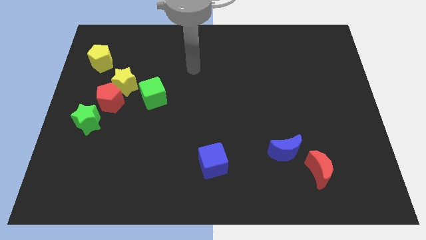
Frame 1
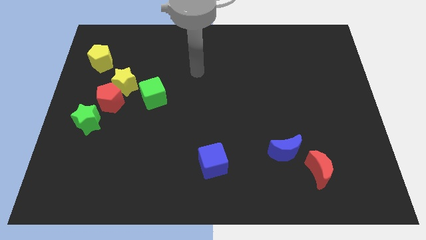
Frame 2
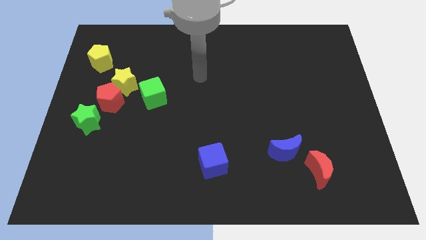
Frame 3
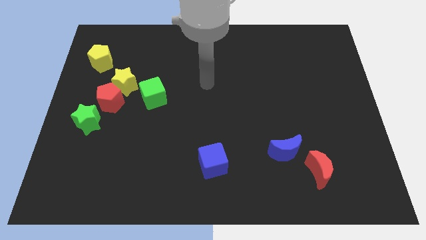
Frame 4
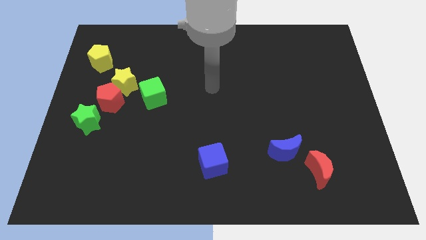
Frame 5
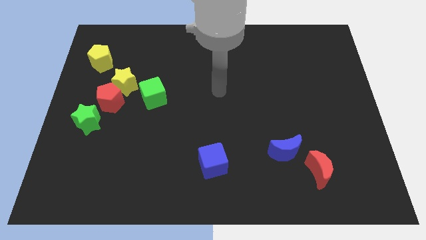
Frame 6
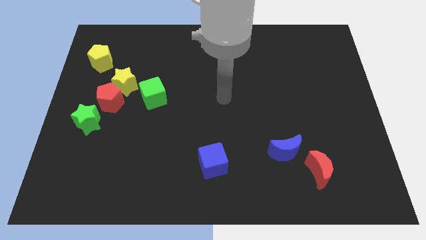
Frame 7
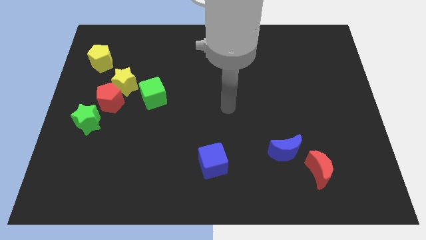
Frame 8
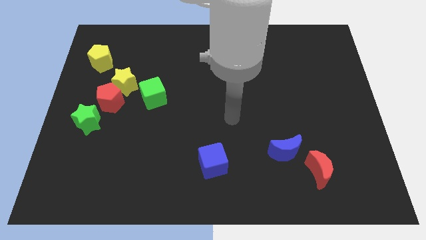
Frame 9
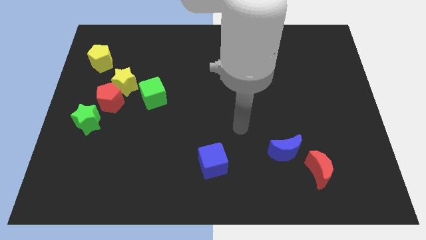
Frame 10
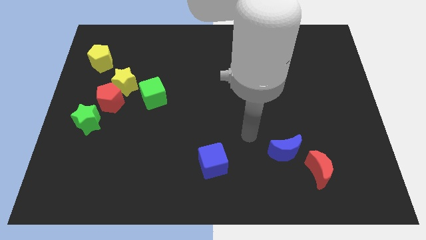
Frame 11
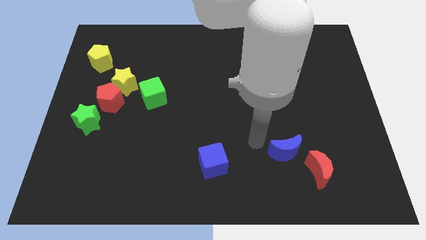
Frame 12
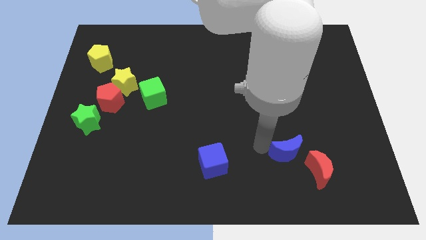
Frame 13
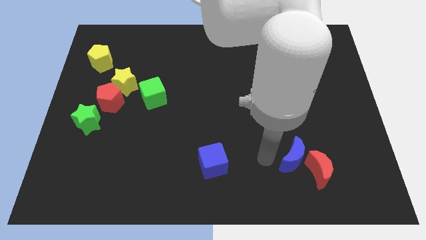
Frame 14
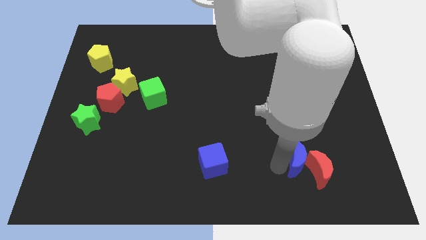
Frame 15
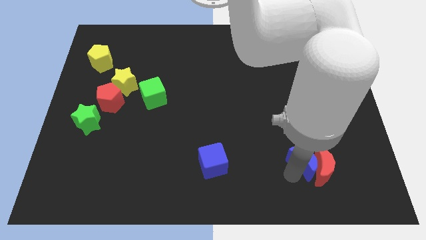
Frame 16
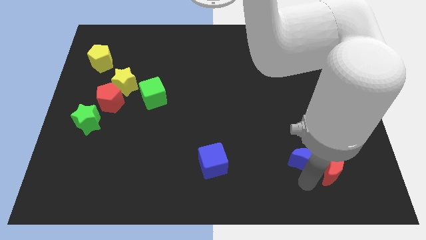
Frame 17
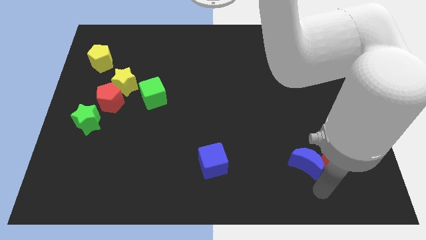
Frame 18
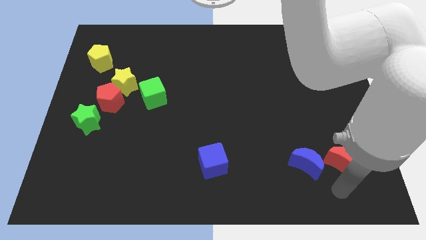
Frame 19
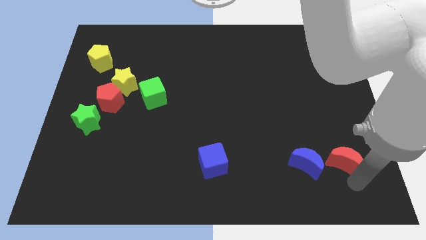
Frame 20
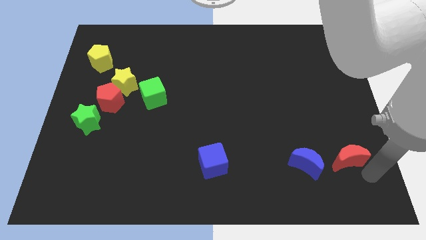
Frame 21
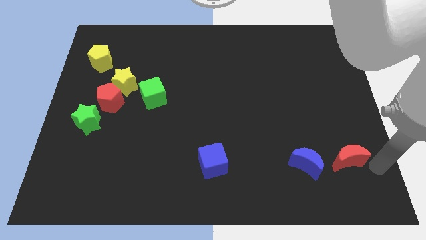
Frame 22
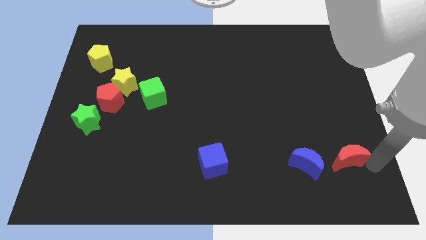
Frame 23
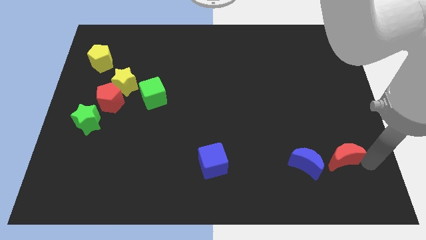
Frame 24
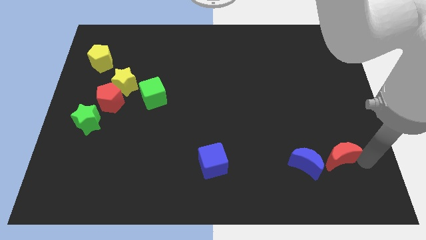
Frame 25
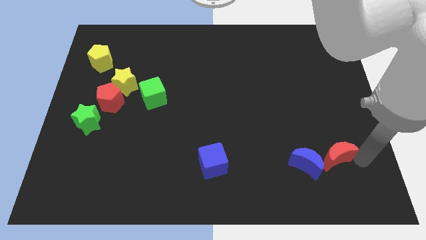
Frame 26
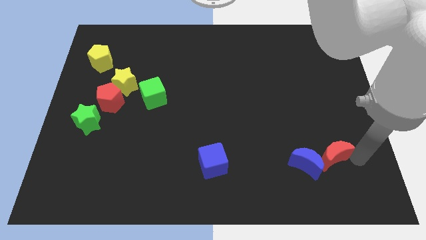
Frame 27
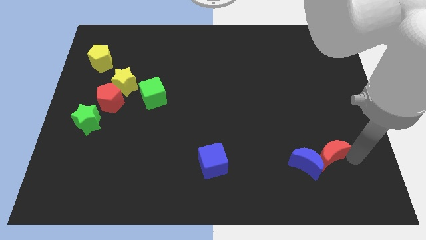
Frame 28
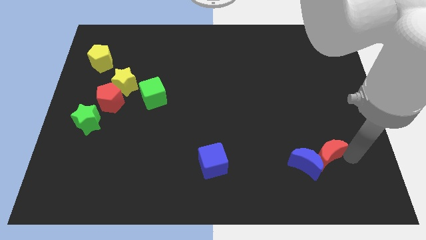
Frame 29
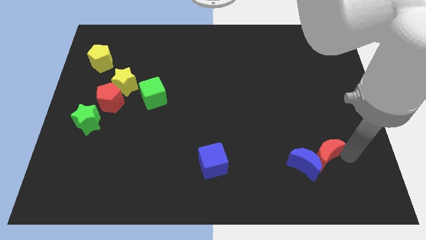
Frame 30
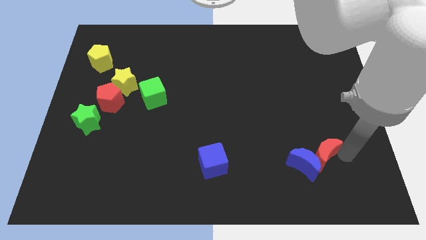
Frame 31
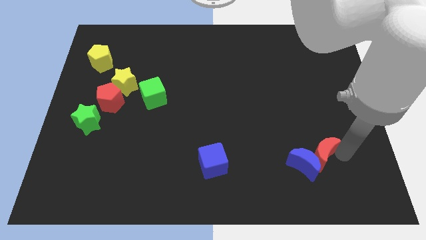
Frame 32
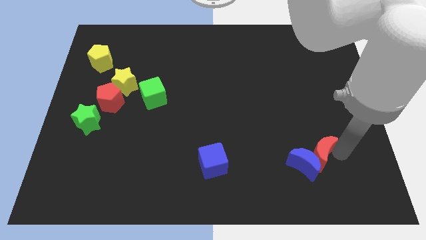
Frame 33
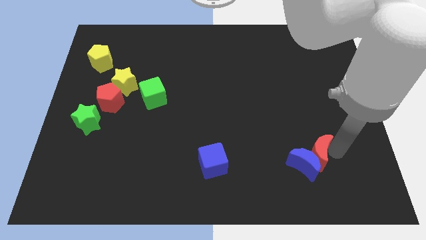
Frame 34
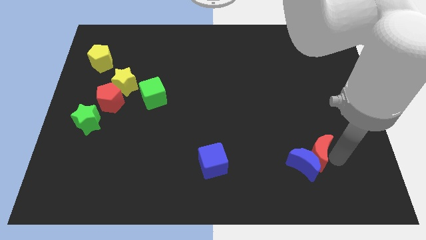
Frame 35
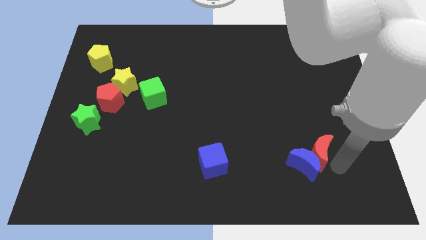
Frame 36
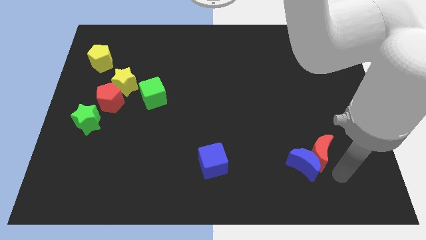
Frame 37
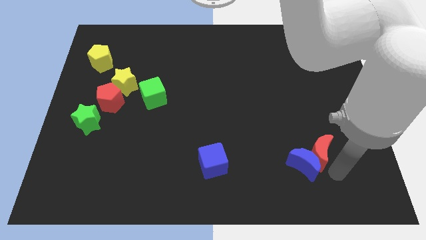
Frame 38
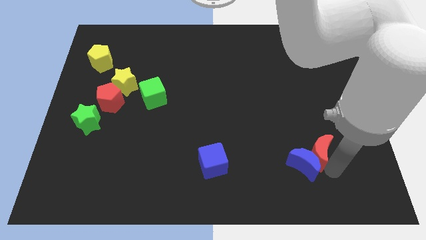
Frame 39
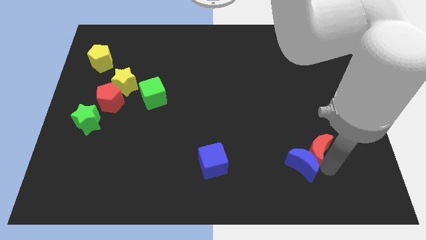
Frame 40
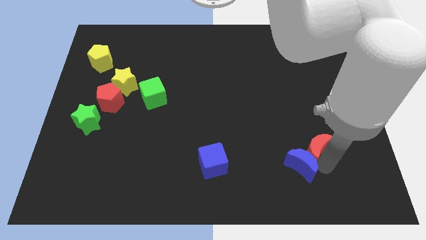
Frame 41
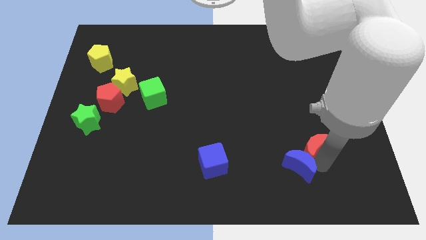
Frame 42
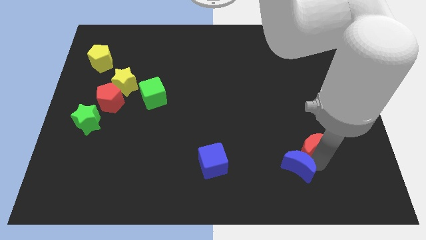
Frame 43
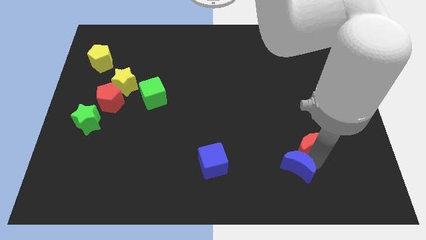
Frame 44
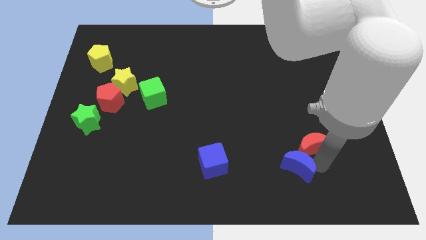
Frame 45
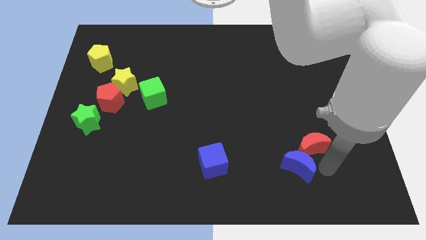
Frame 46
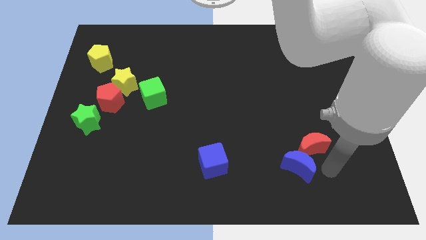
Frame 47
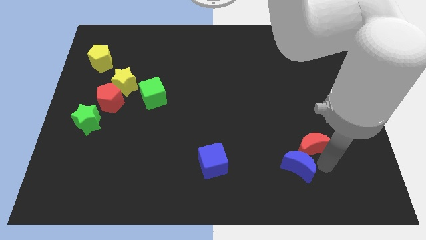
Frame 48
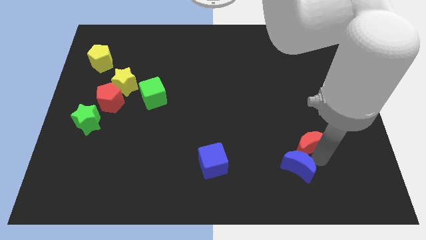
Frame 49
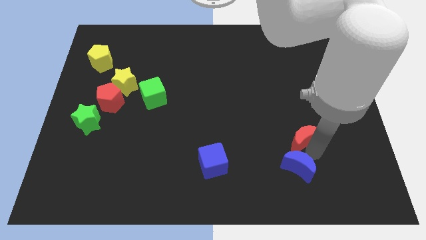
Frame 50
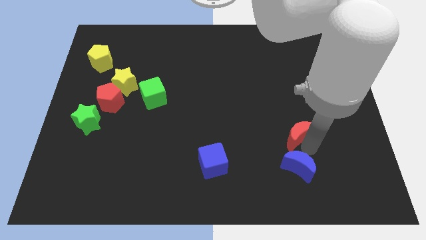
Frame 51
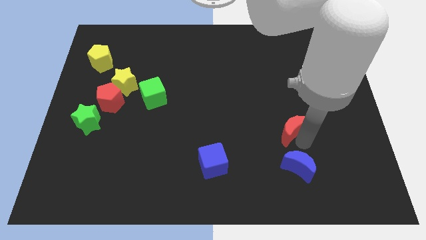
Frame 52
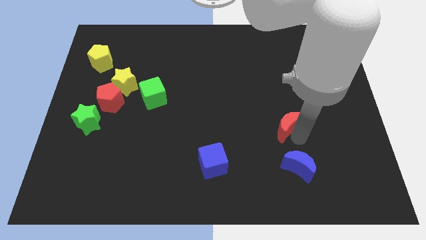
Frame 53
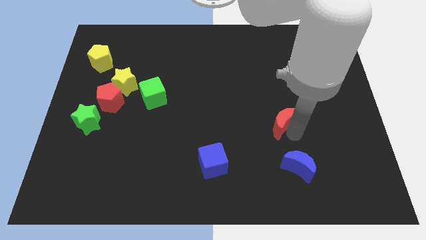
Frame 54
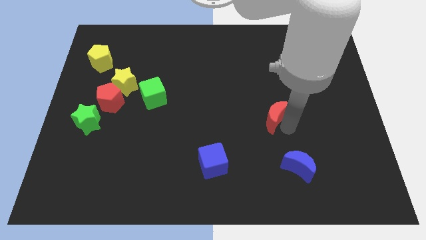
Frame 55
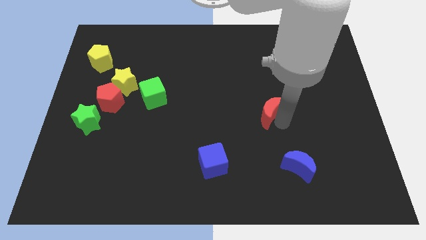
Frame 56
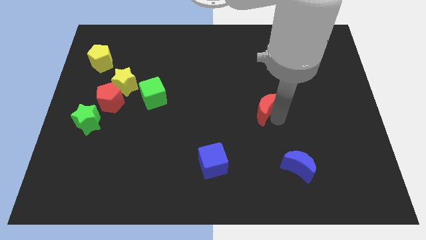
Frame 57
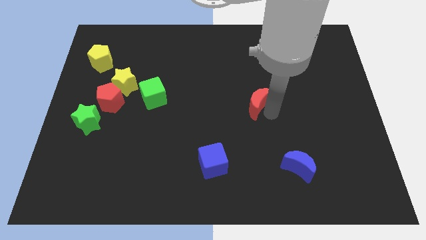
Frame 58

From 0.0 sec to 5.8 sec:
slide the red moon diagonally upwards and to the left

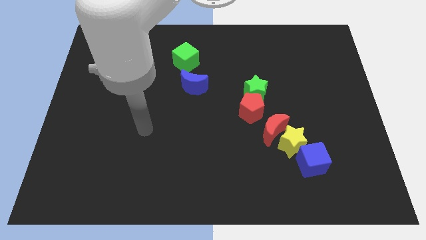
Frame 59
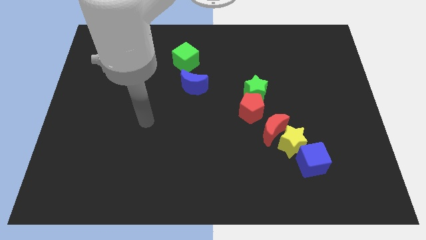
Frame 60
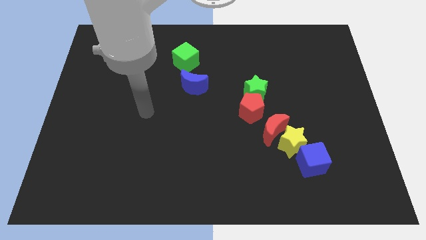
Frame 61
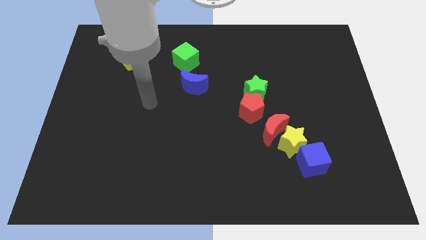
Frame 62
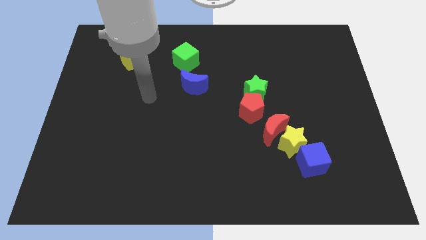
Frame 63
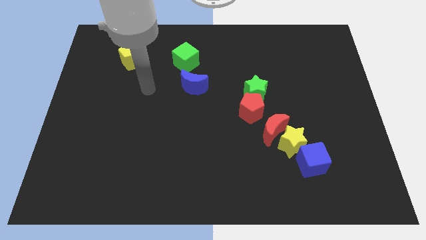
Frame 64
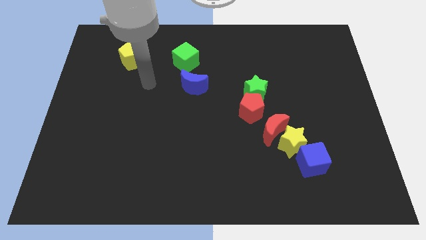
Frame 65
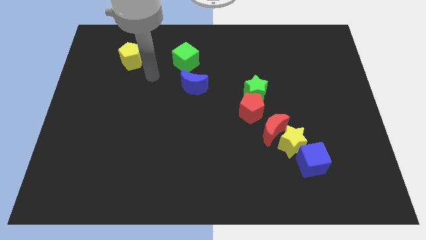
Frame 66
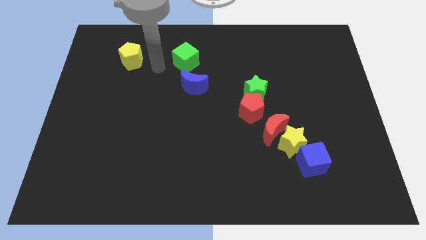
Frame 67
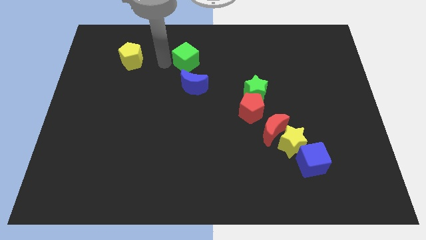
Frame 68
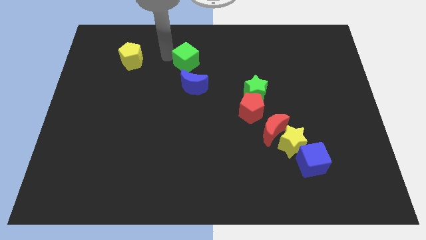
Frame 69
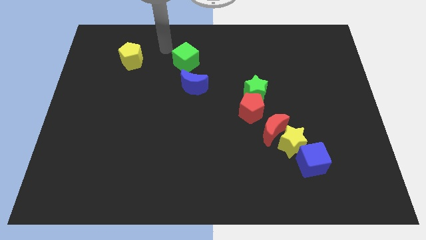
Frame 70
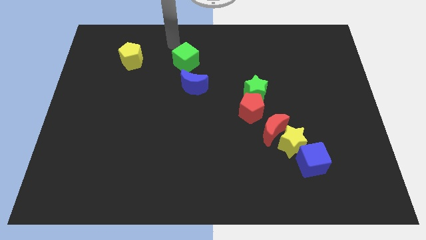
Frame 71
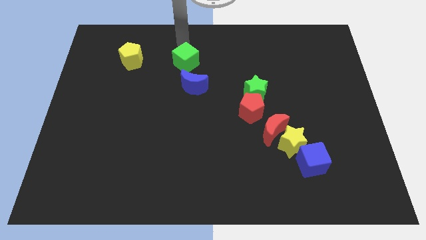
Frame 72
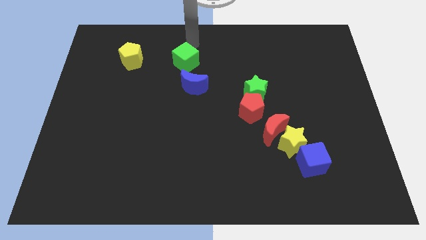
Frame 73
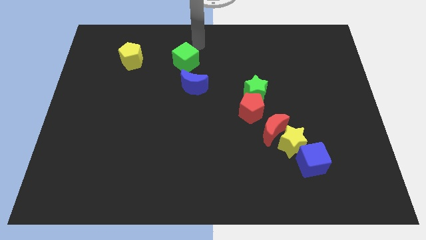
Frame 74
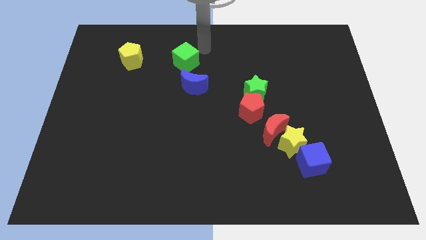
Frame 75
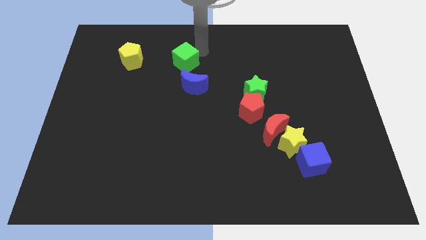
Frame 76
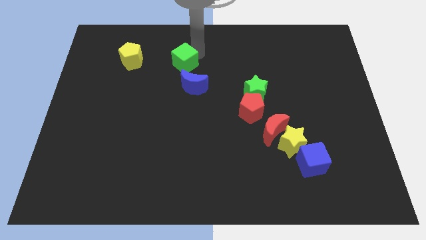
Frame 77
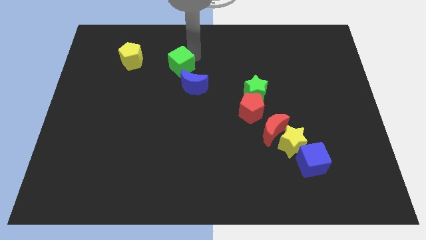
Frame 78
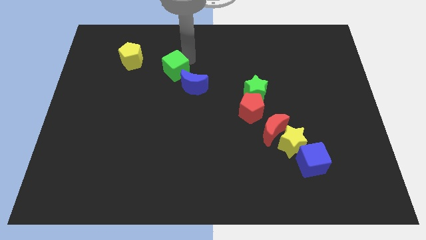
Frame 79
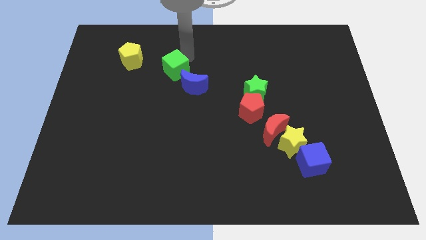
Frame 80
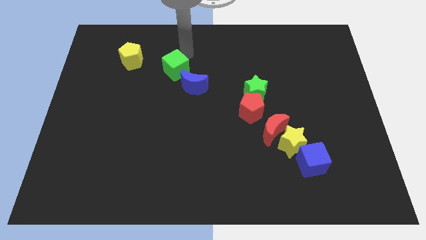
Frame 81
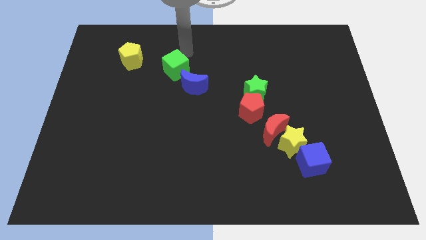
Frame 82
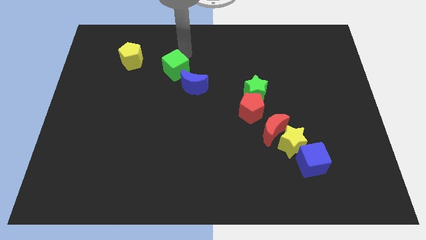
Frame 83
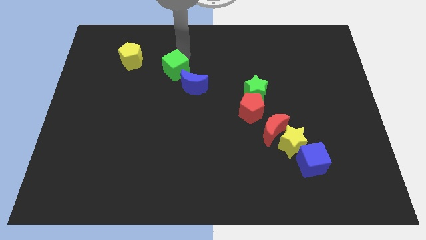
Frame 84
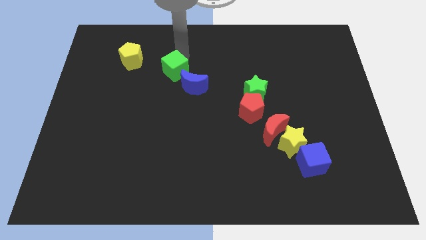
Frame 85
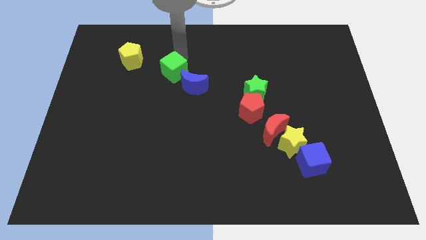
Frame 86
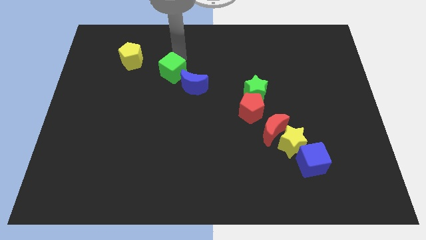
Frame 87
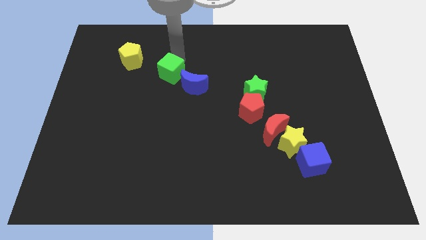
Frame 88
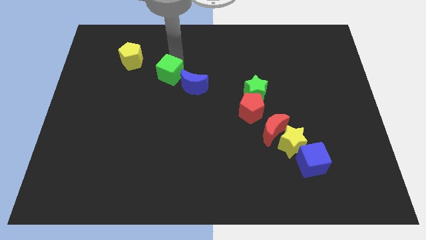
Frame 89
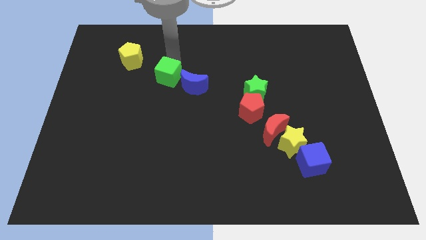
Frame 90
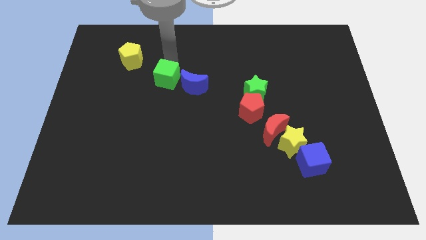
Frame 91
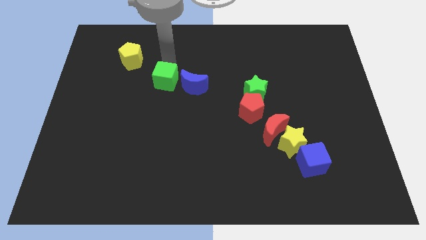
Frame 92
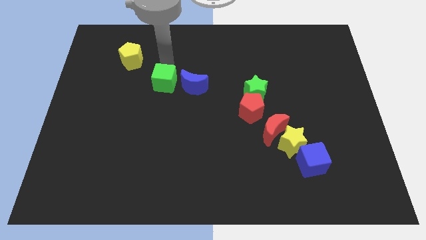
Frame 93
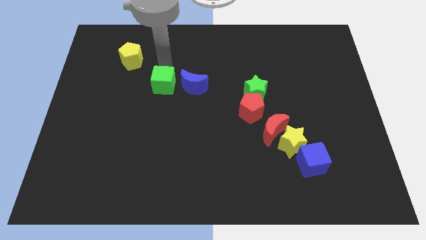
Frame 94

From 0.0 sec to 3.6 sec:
slightly move the green cube down
